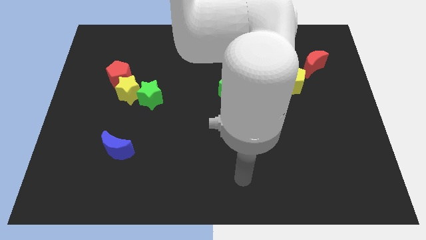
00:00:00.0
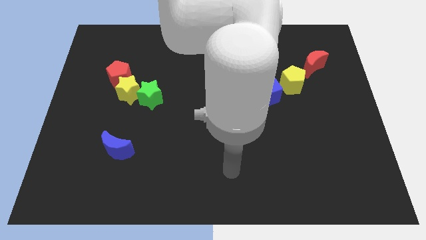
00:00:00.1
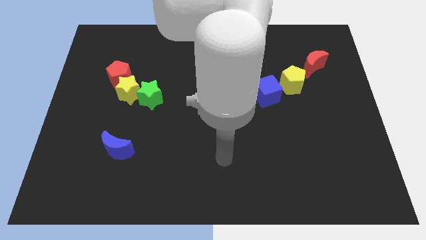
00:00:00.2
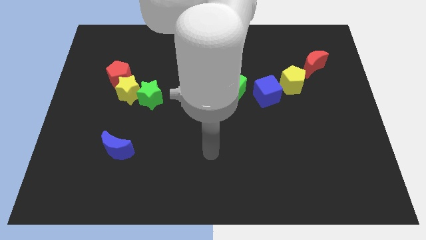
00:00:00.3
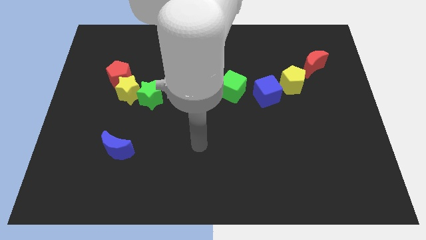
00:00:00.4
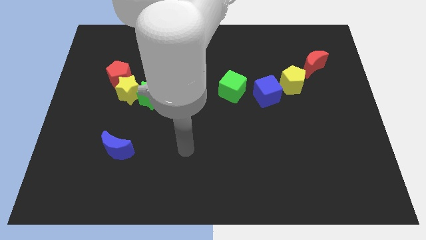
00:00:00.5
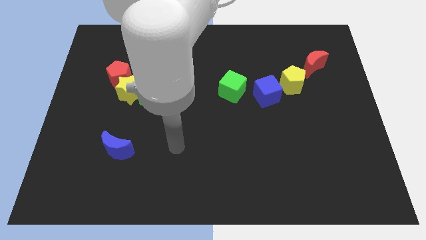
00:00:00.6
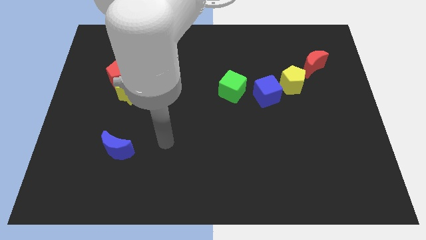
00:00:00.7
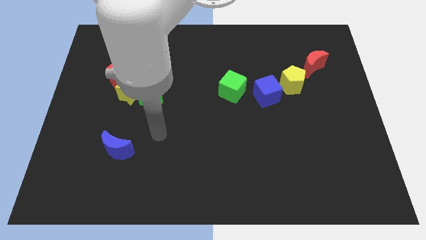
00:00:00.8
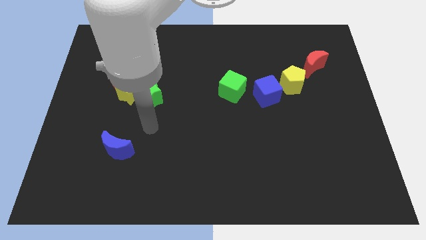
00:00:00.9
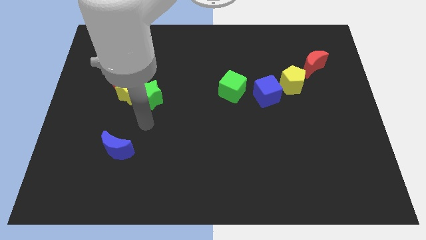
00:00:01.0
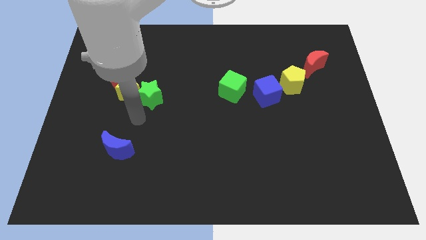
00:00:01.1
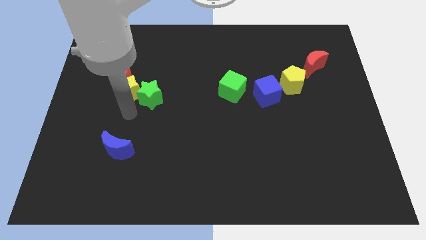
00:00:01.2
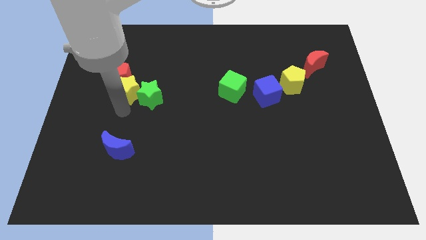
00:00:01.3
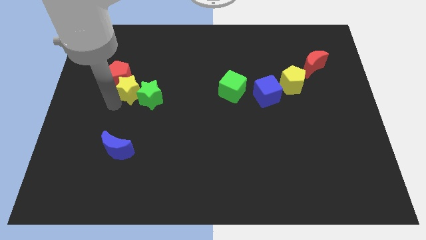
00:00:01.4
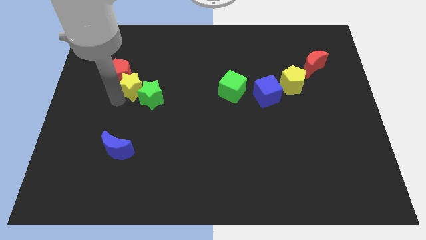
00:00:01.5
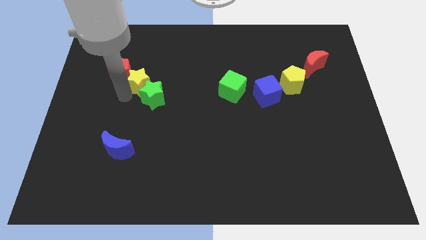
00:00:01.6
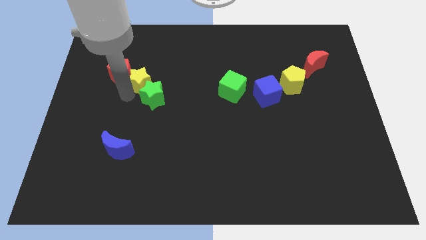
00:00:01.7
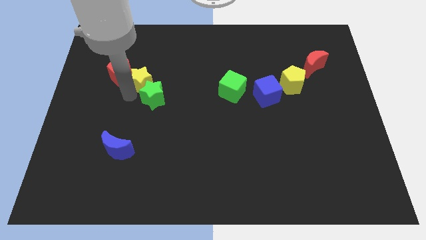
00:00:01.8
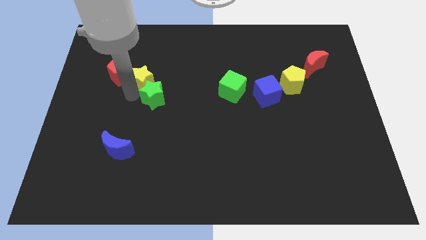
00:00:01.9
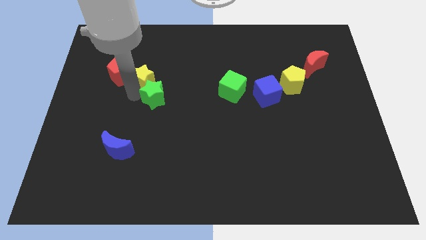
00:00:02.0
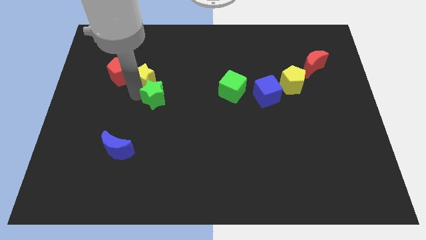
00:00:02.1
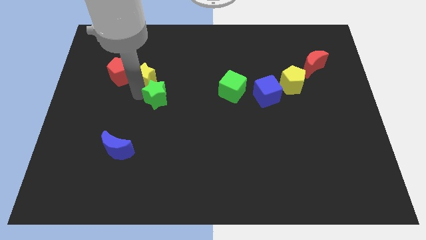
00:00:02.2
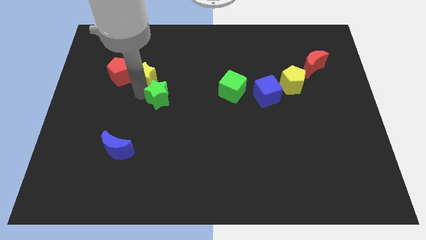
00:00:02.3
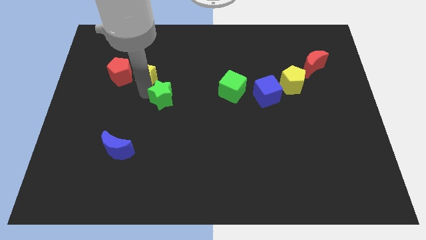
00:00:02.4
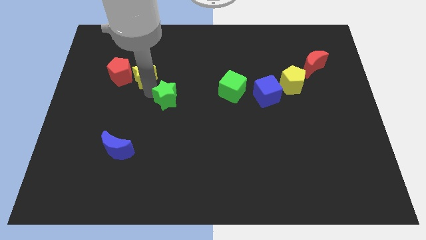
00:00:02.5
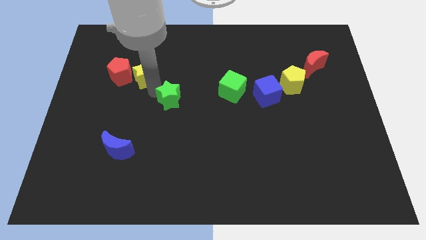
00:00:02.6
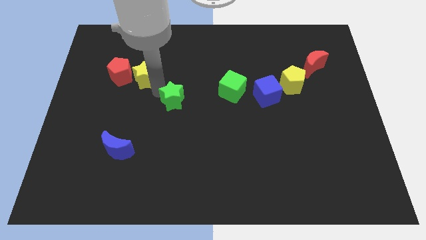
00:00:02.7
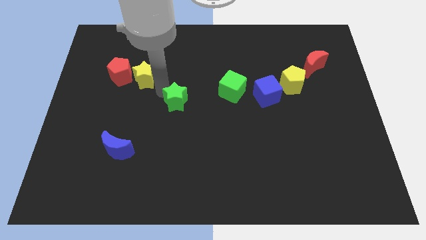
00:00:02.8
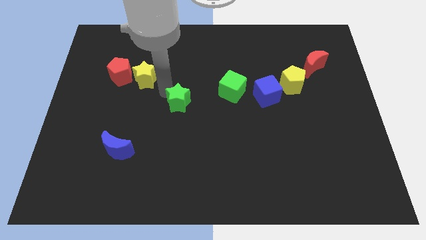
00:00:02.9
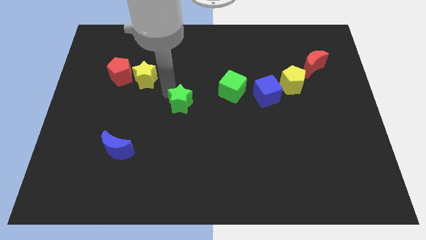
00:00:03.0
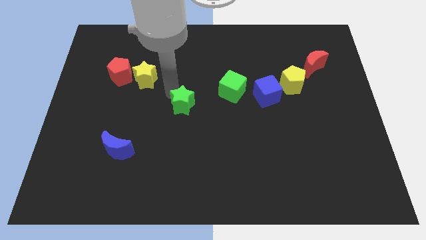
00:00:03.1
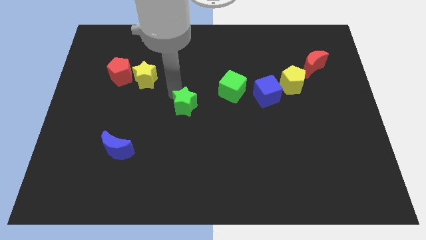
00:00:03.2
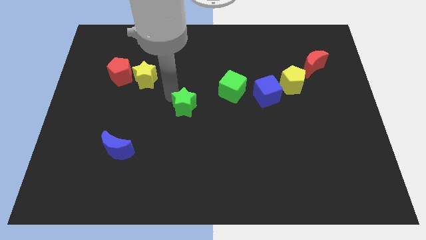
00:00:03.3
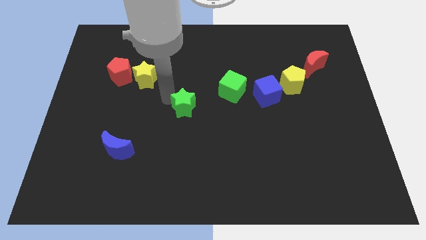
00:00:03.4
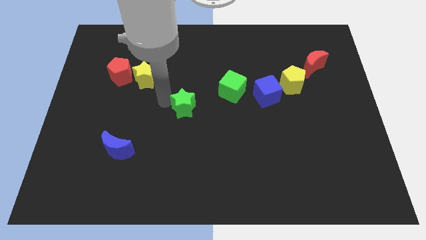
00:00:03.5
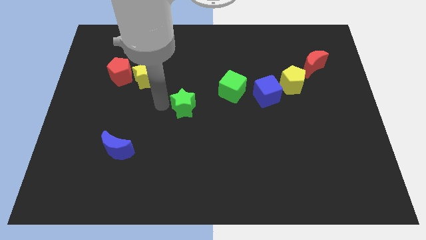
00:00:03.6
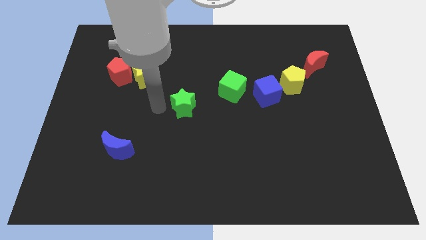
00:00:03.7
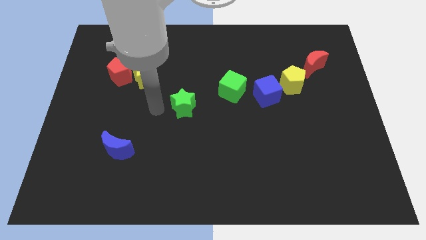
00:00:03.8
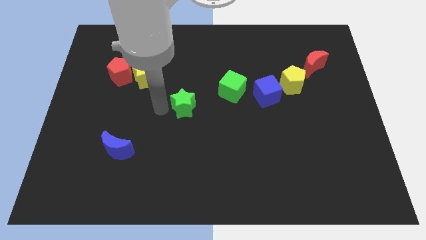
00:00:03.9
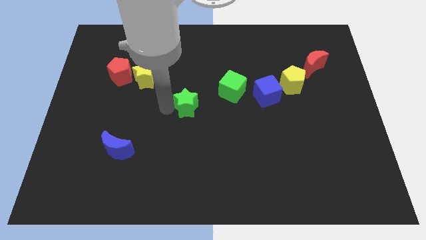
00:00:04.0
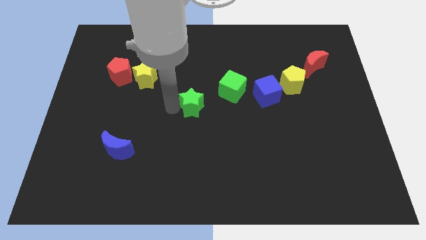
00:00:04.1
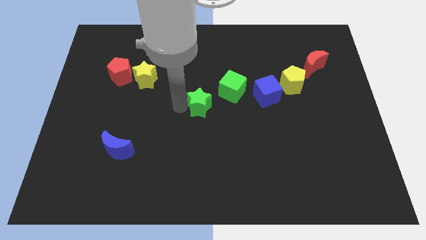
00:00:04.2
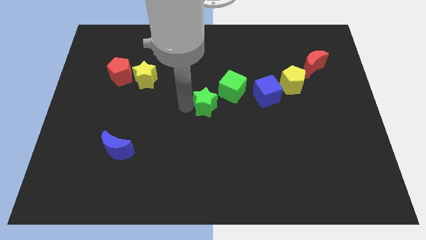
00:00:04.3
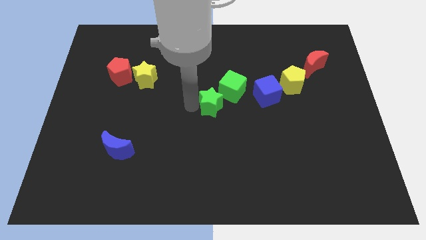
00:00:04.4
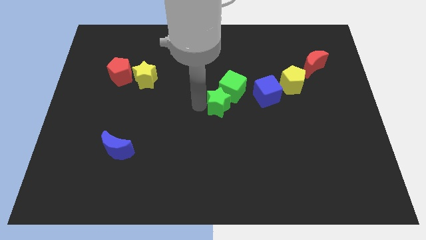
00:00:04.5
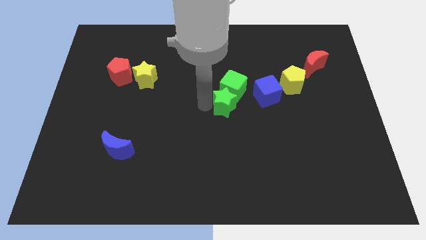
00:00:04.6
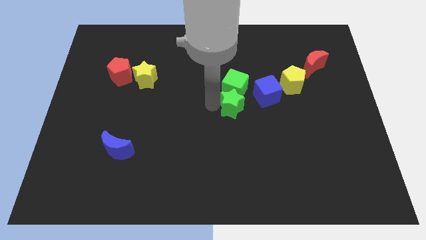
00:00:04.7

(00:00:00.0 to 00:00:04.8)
push the green star to the bottom right side of the green cube

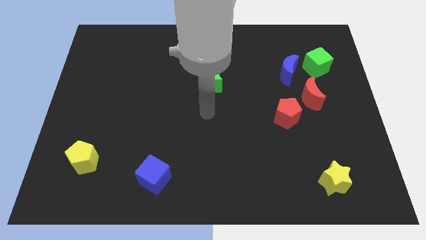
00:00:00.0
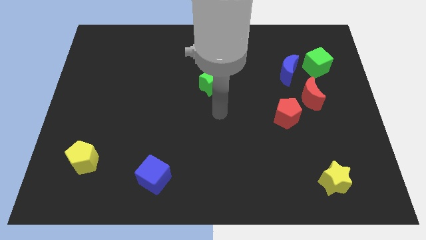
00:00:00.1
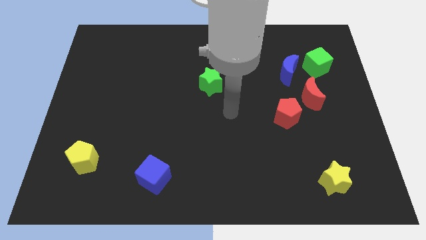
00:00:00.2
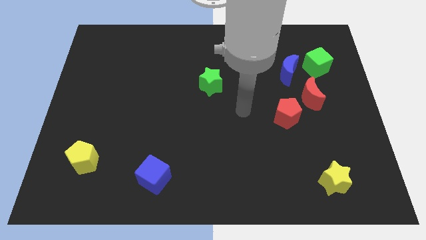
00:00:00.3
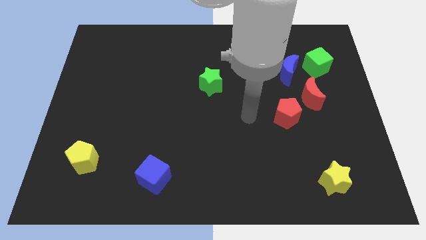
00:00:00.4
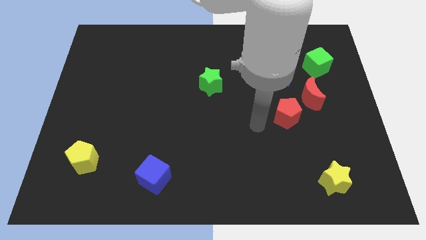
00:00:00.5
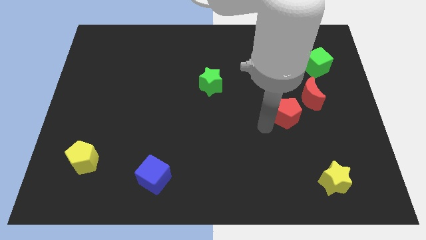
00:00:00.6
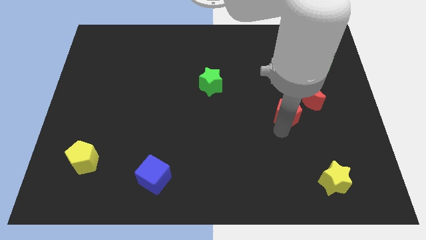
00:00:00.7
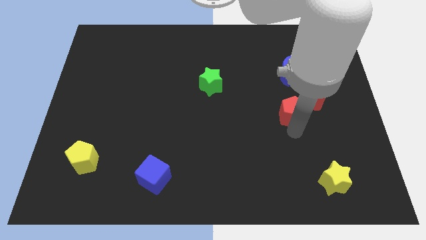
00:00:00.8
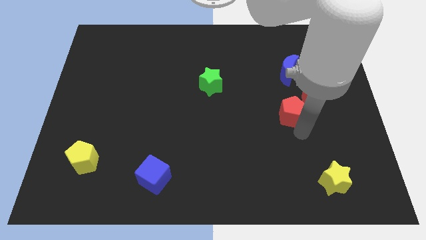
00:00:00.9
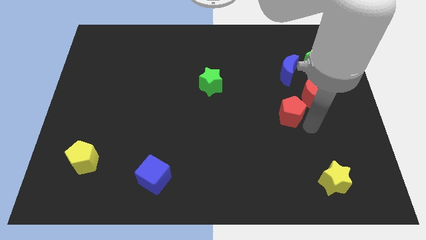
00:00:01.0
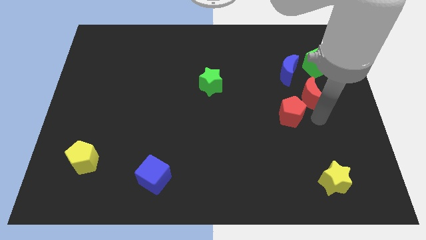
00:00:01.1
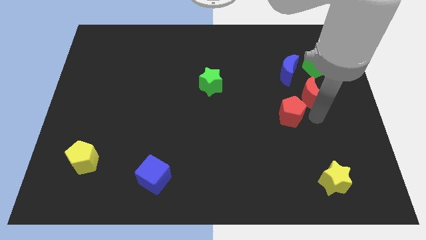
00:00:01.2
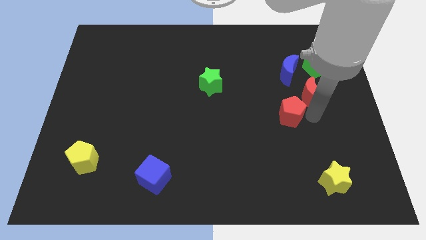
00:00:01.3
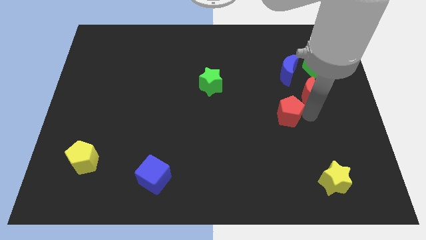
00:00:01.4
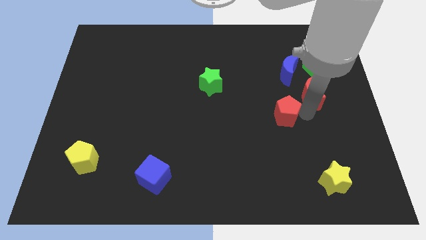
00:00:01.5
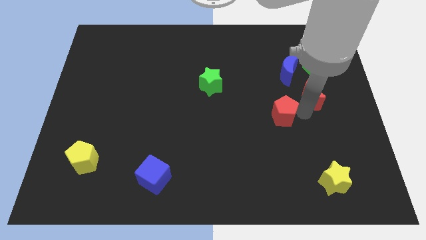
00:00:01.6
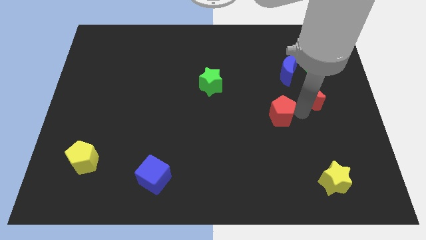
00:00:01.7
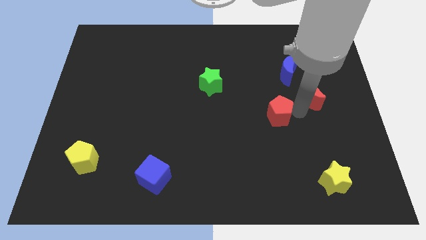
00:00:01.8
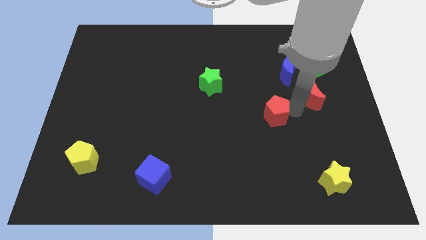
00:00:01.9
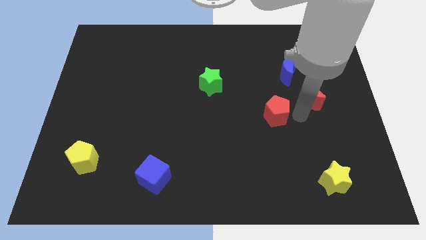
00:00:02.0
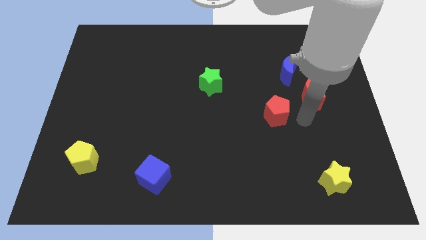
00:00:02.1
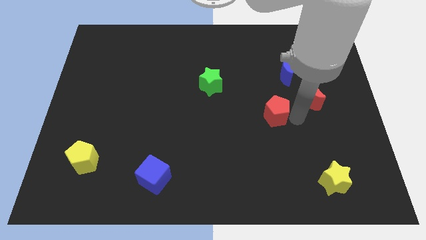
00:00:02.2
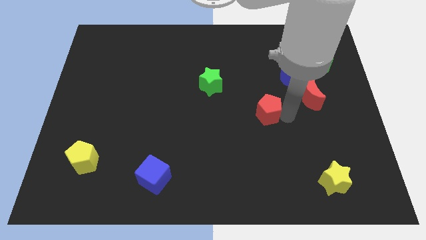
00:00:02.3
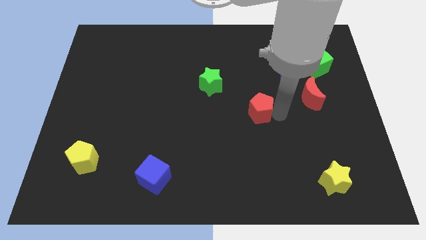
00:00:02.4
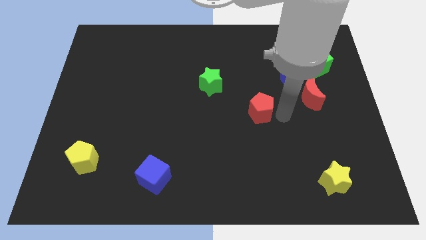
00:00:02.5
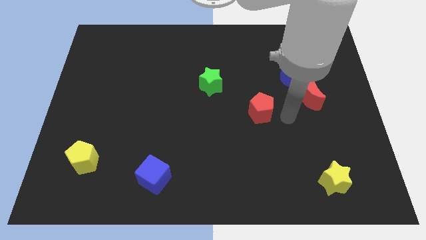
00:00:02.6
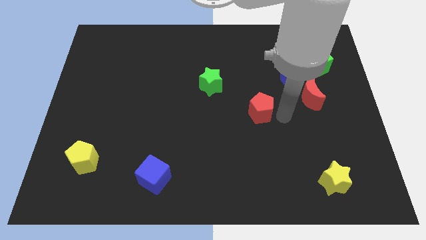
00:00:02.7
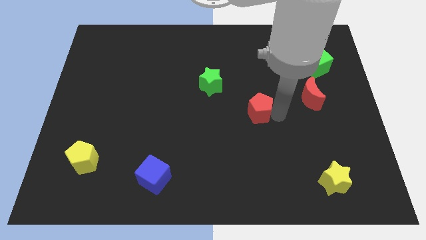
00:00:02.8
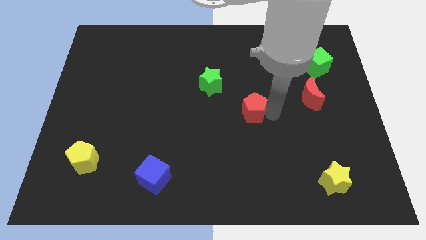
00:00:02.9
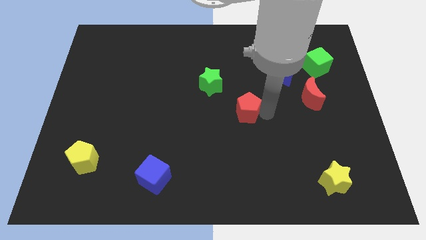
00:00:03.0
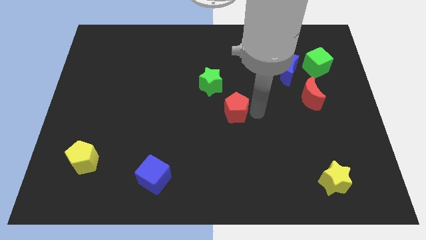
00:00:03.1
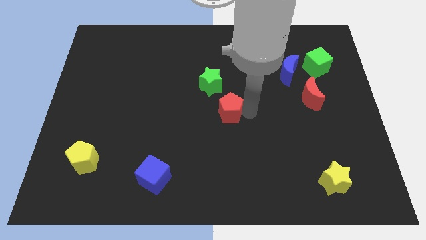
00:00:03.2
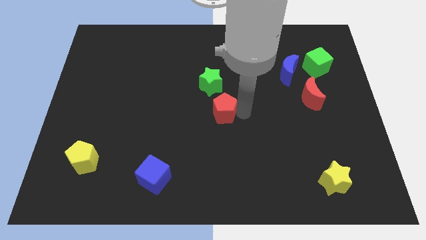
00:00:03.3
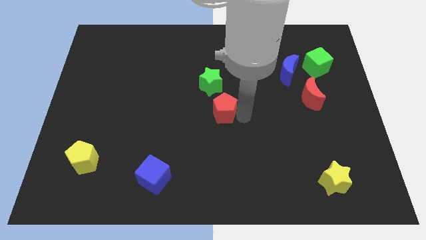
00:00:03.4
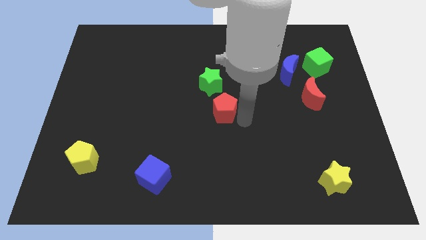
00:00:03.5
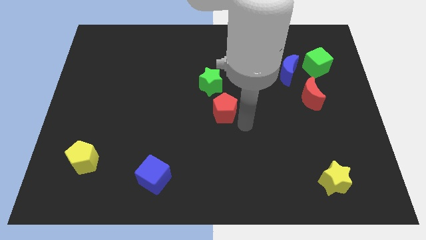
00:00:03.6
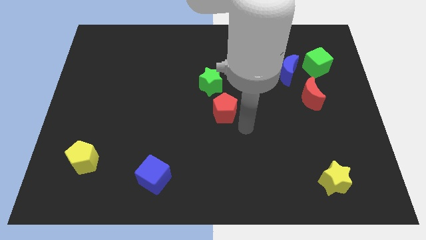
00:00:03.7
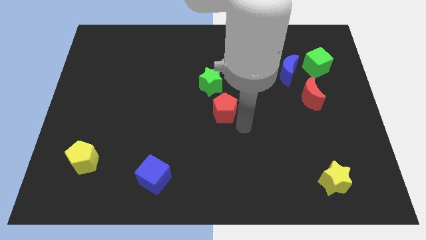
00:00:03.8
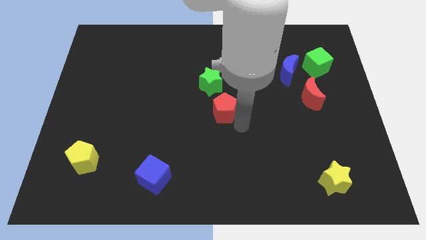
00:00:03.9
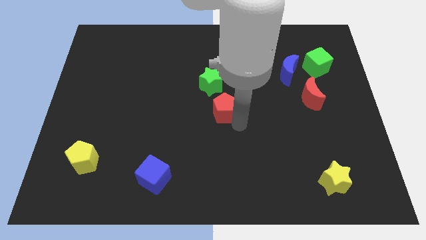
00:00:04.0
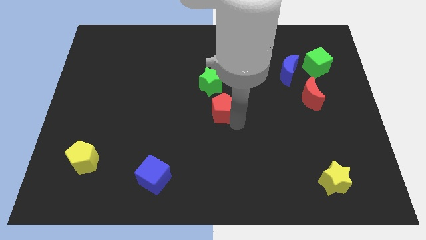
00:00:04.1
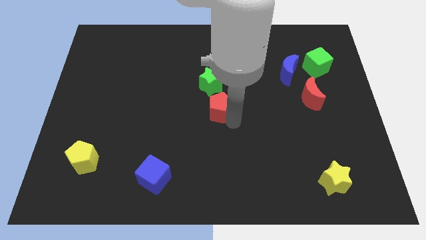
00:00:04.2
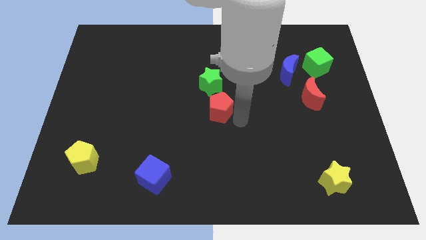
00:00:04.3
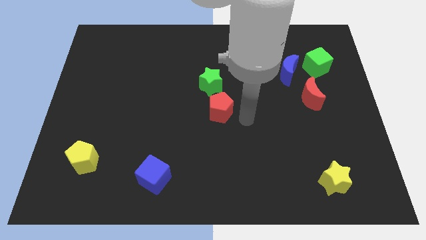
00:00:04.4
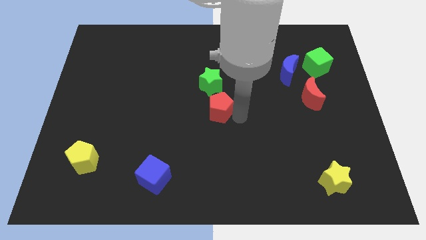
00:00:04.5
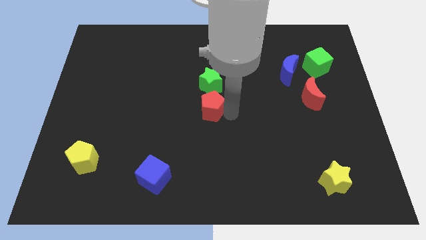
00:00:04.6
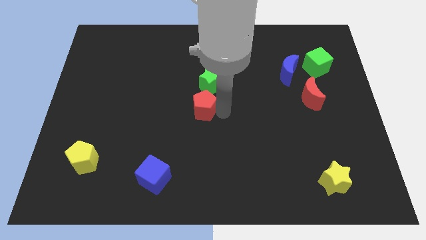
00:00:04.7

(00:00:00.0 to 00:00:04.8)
push the red pentagon diagonally down and to the left of the green star
